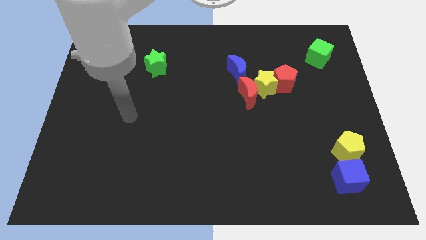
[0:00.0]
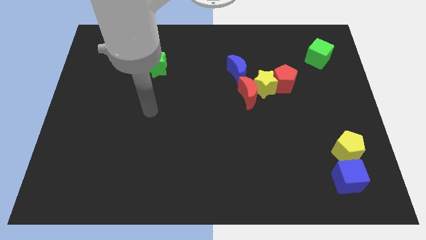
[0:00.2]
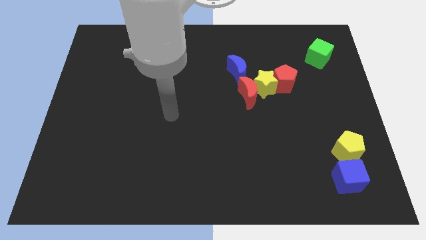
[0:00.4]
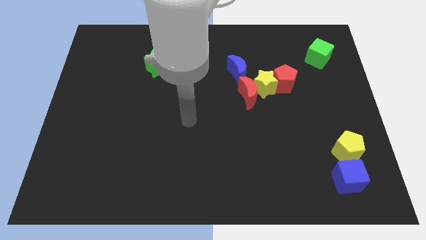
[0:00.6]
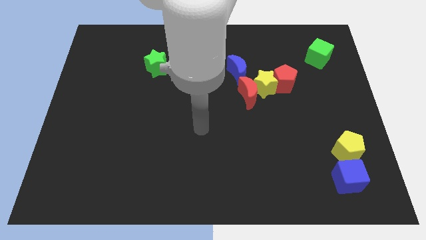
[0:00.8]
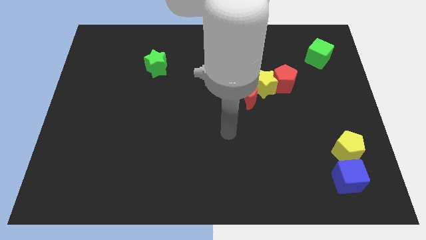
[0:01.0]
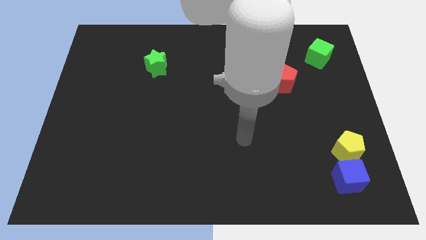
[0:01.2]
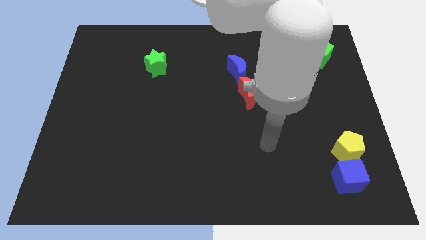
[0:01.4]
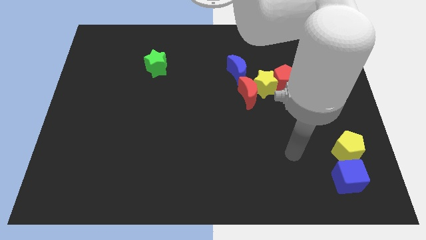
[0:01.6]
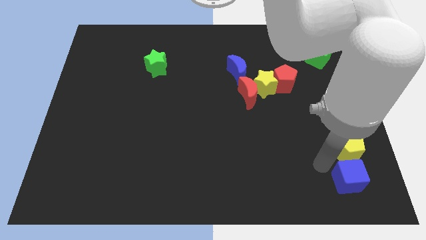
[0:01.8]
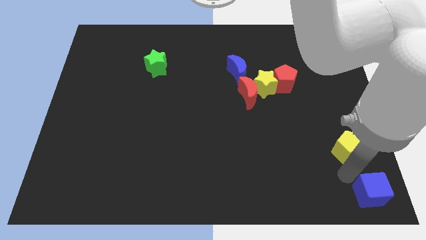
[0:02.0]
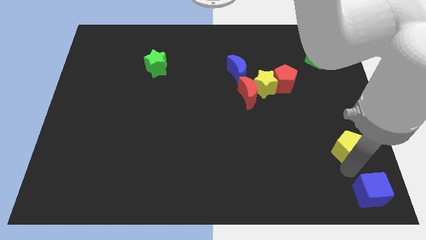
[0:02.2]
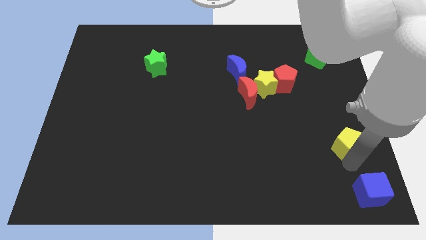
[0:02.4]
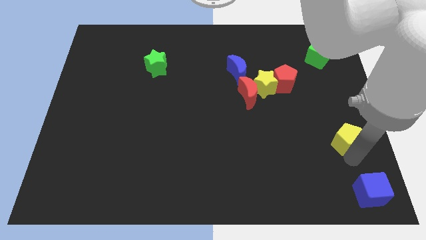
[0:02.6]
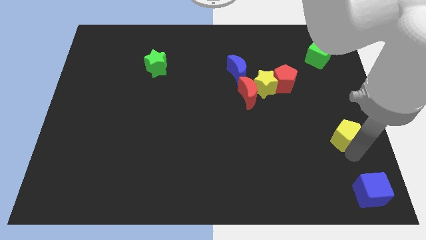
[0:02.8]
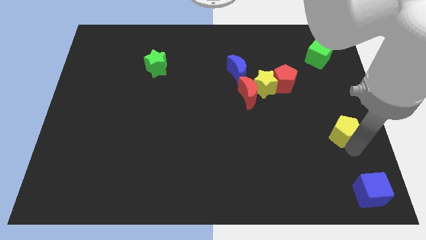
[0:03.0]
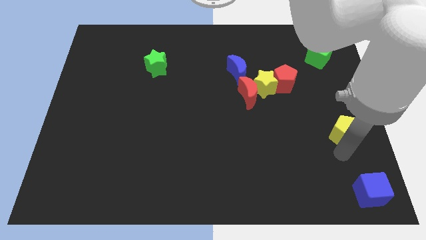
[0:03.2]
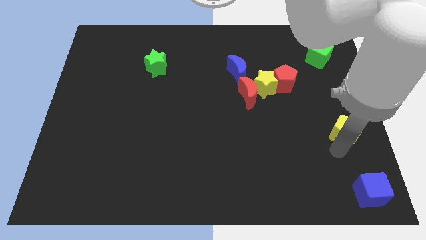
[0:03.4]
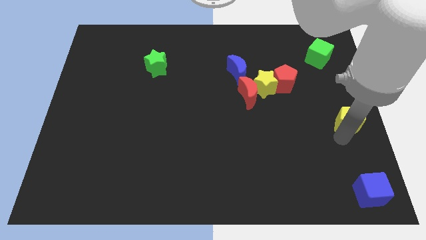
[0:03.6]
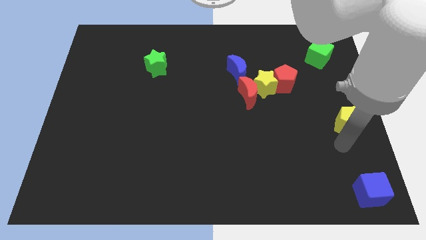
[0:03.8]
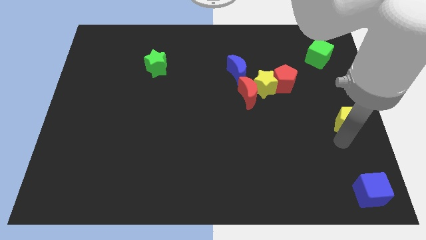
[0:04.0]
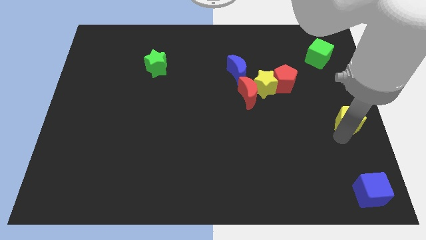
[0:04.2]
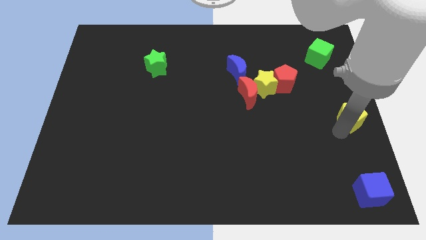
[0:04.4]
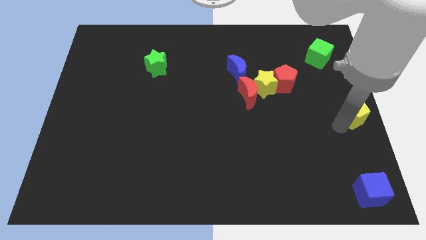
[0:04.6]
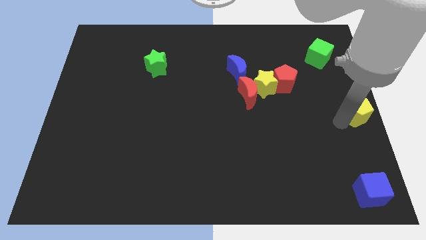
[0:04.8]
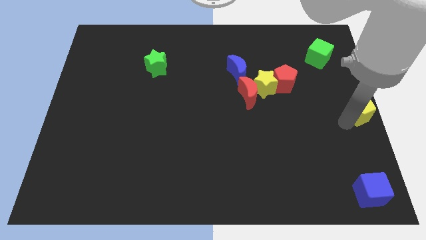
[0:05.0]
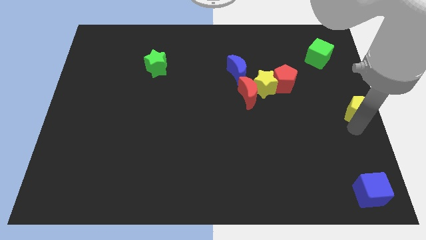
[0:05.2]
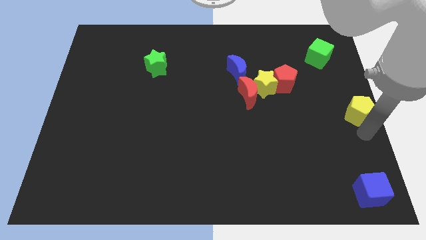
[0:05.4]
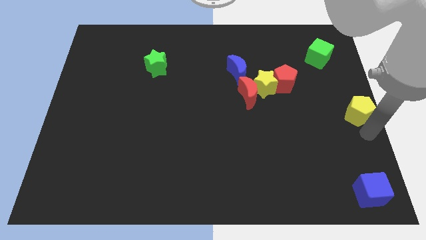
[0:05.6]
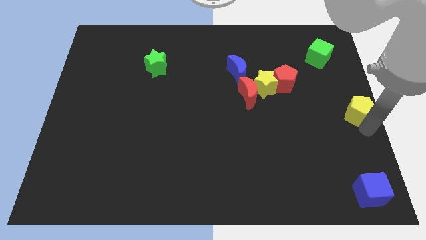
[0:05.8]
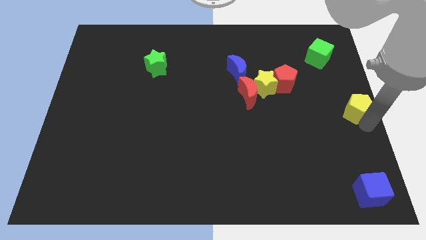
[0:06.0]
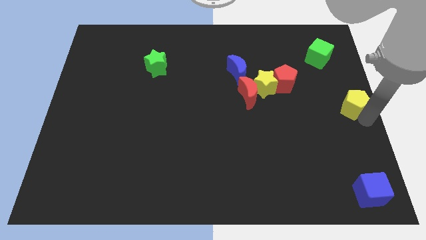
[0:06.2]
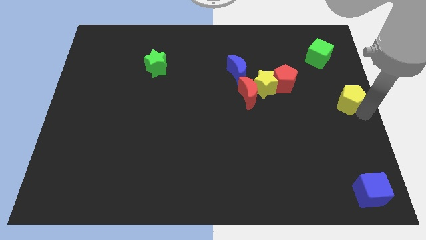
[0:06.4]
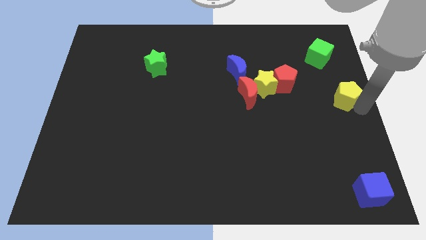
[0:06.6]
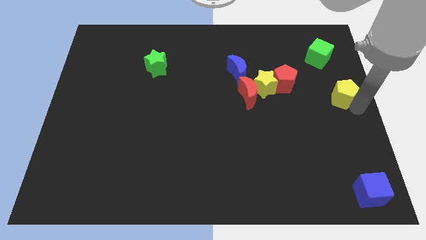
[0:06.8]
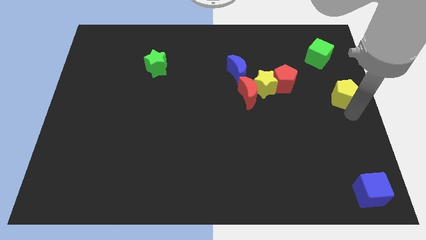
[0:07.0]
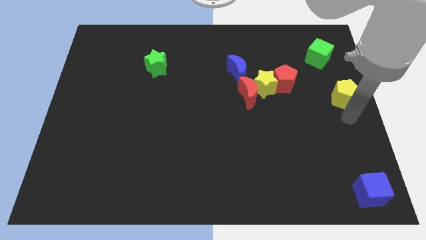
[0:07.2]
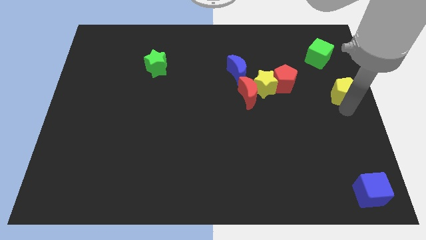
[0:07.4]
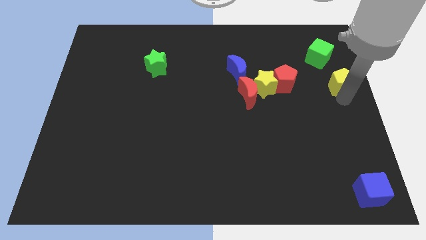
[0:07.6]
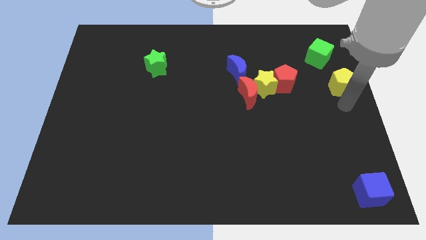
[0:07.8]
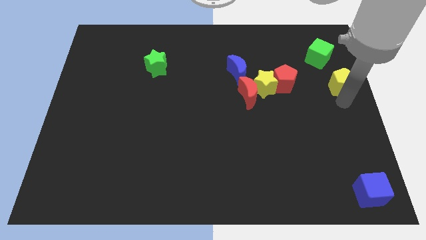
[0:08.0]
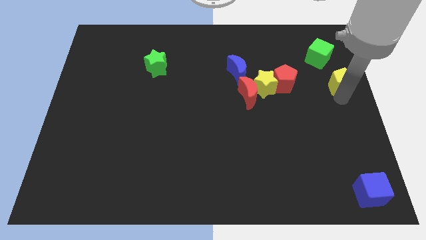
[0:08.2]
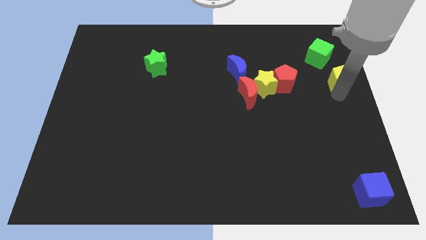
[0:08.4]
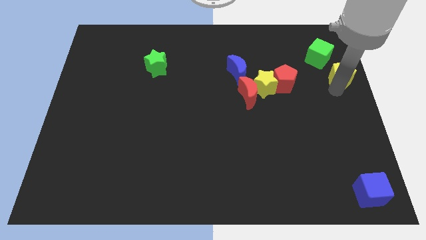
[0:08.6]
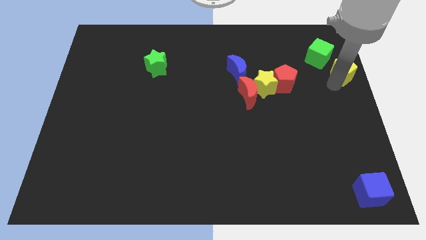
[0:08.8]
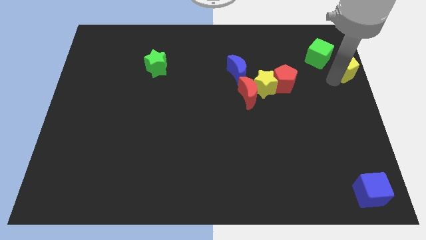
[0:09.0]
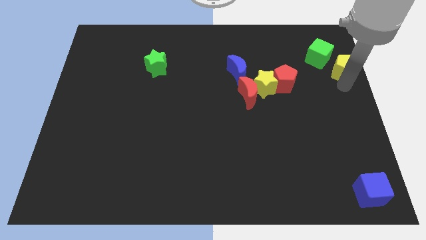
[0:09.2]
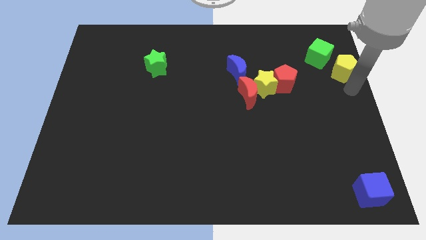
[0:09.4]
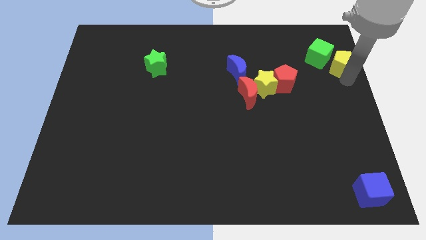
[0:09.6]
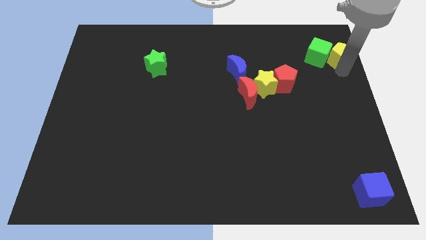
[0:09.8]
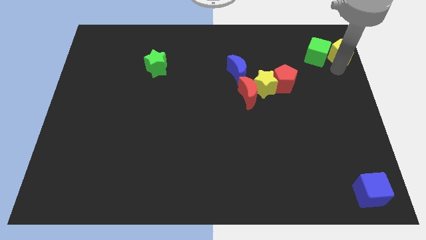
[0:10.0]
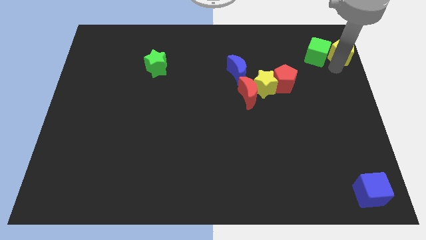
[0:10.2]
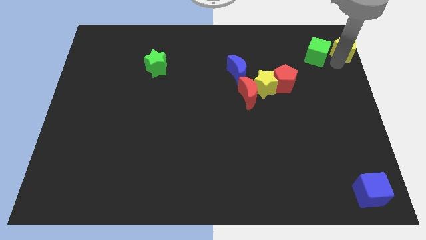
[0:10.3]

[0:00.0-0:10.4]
push the yellow pentagon to the top right corner

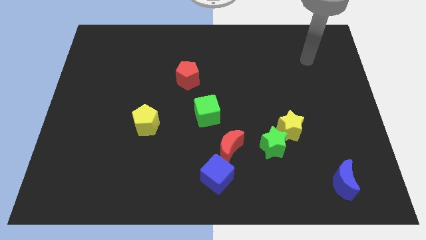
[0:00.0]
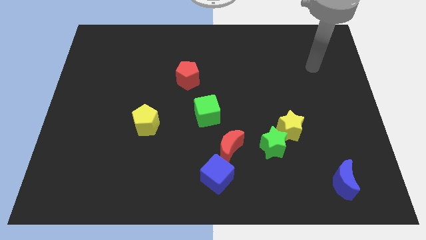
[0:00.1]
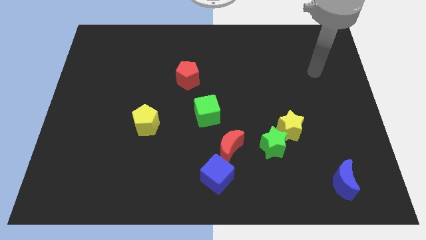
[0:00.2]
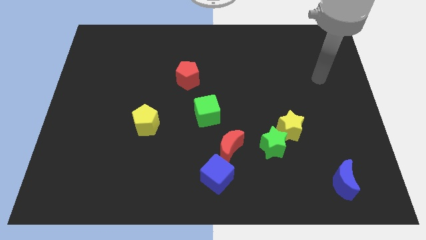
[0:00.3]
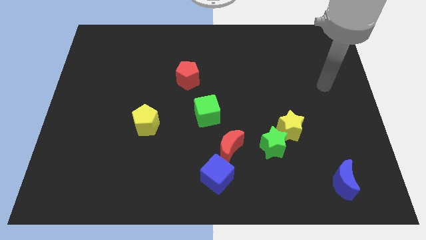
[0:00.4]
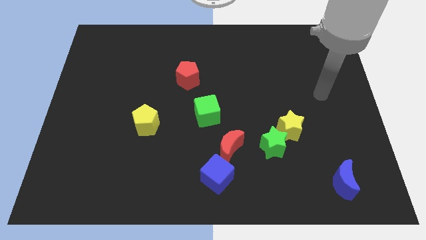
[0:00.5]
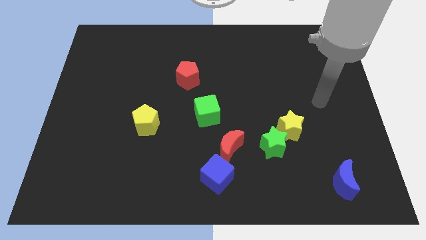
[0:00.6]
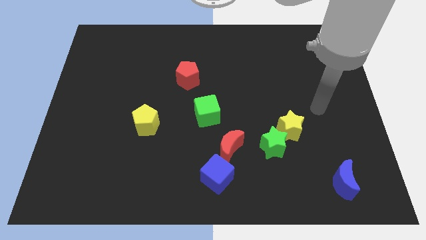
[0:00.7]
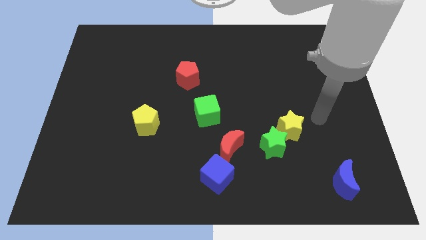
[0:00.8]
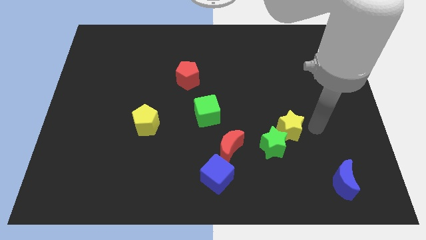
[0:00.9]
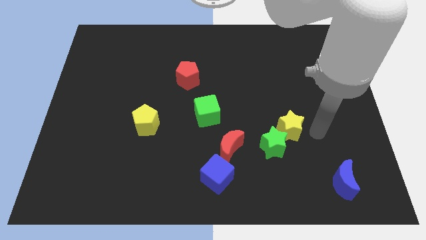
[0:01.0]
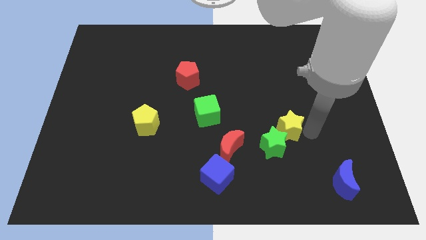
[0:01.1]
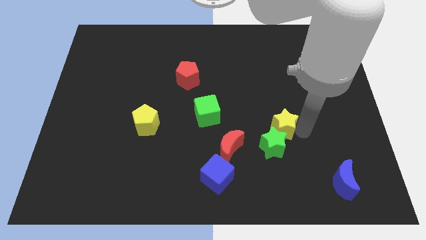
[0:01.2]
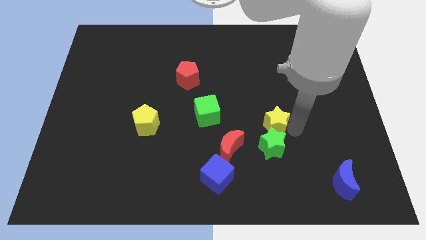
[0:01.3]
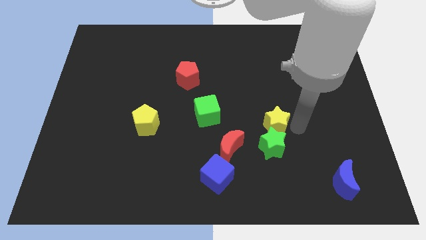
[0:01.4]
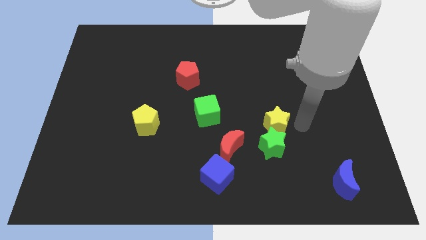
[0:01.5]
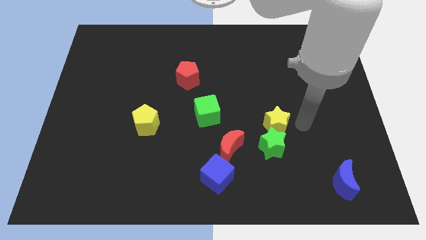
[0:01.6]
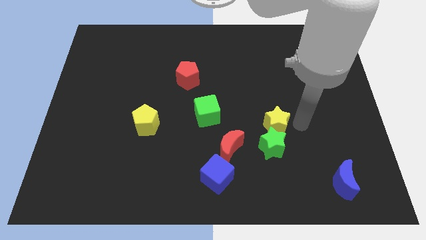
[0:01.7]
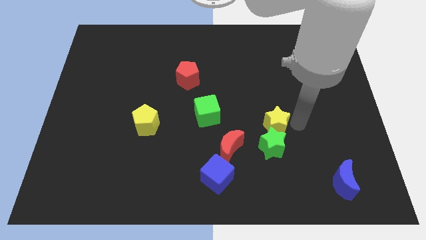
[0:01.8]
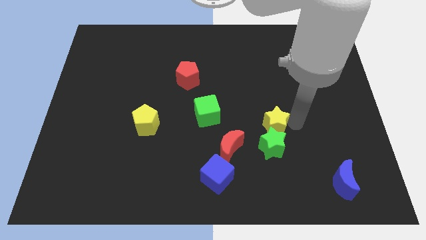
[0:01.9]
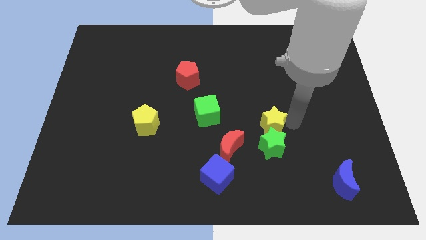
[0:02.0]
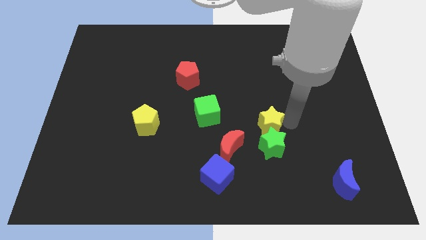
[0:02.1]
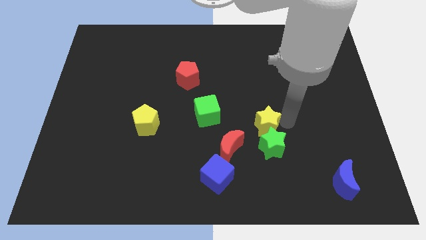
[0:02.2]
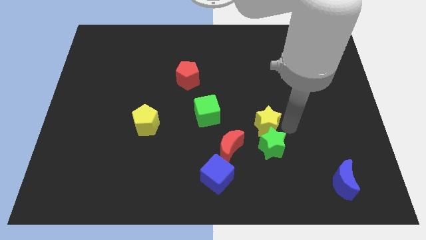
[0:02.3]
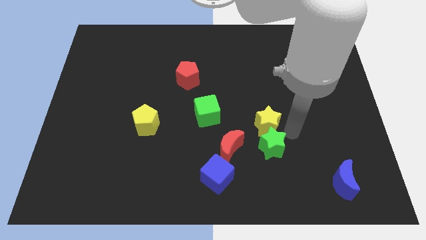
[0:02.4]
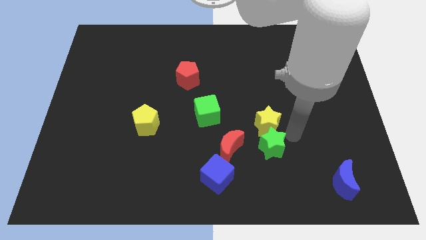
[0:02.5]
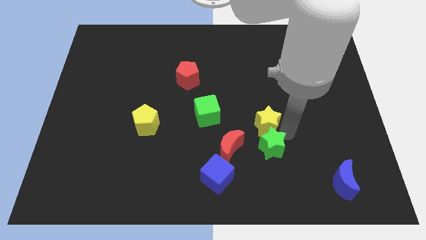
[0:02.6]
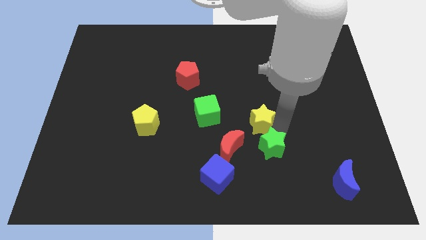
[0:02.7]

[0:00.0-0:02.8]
move the yellow star to the middle of the board
